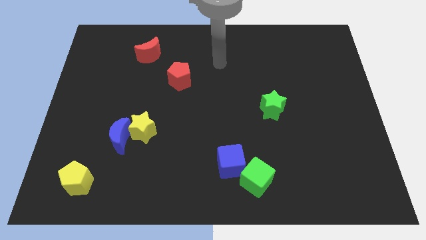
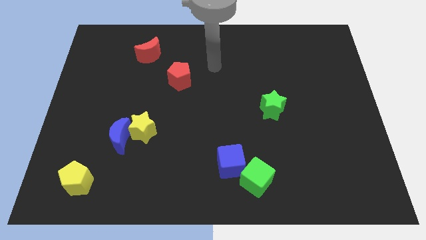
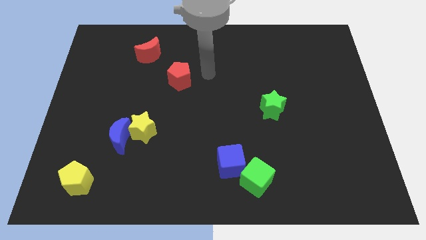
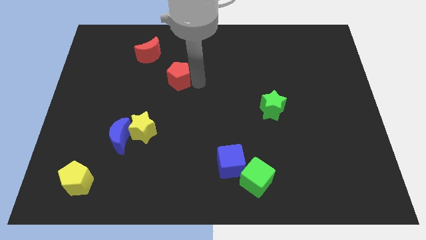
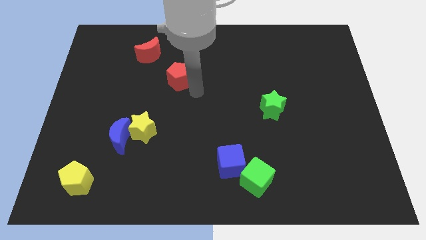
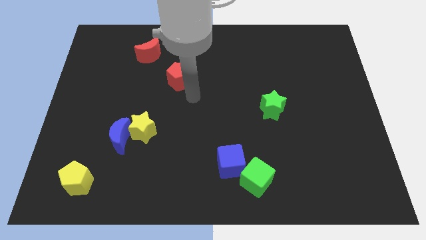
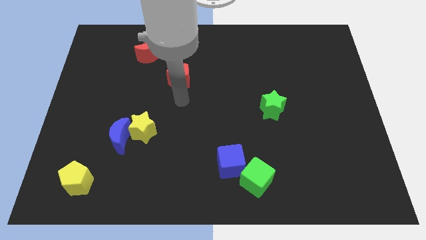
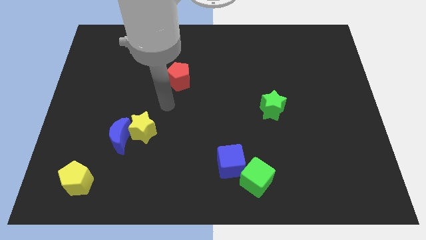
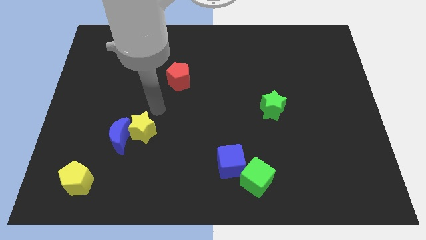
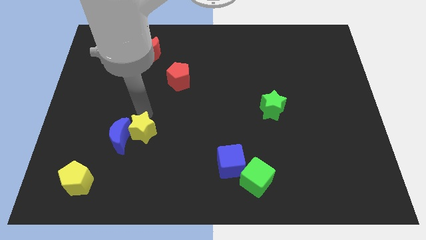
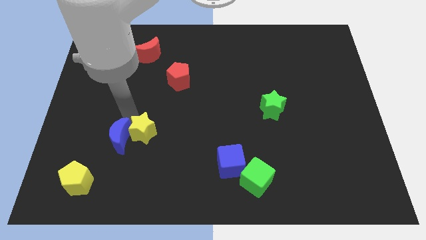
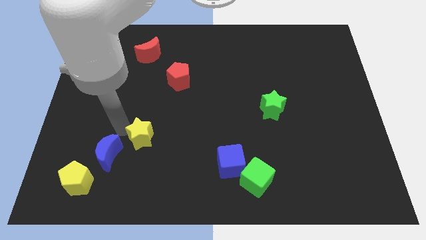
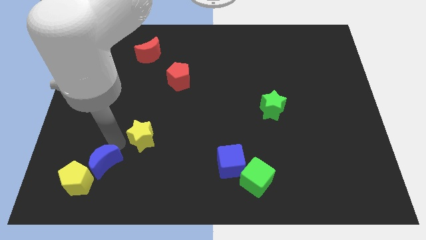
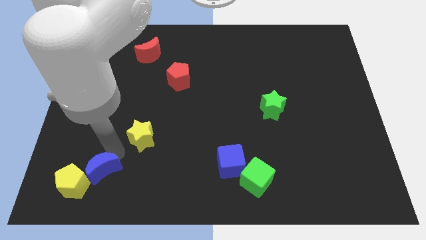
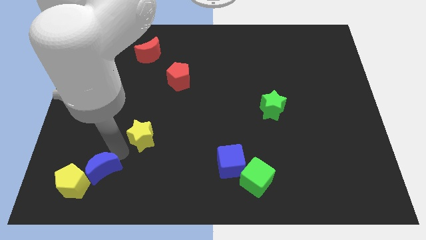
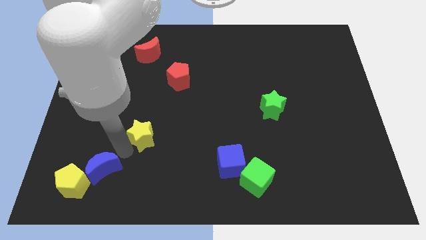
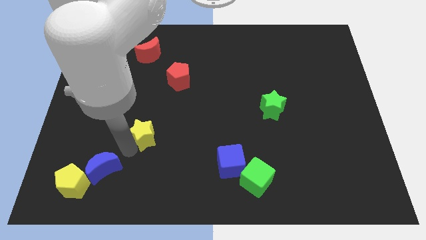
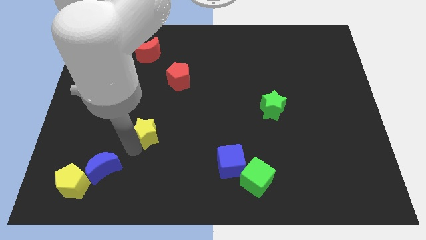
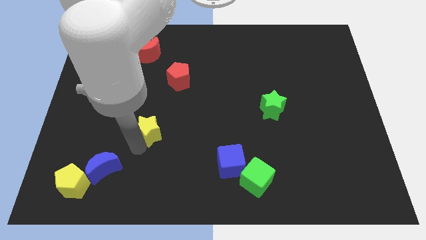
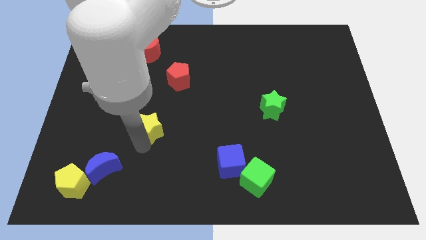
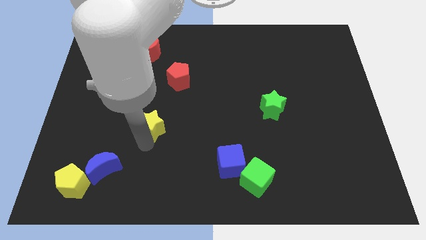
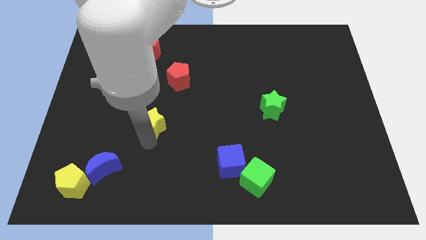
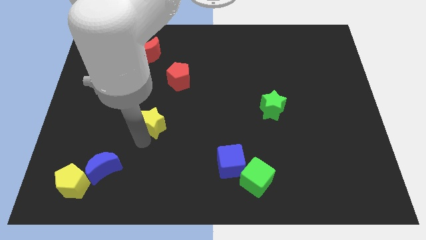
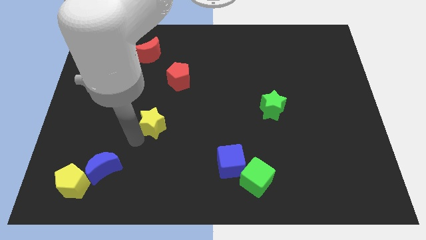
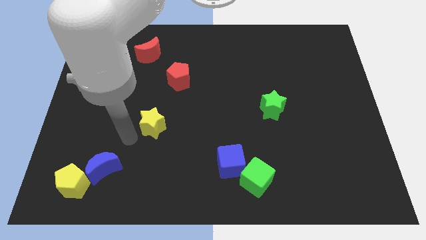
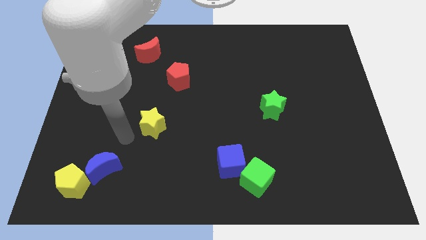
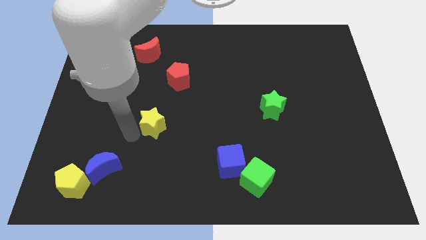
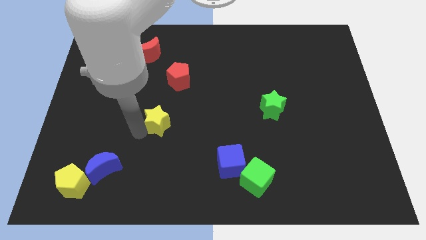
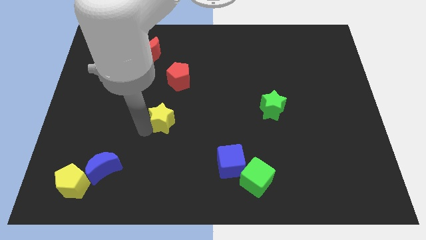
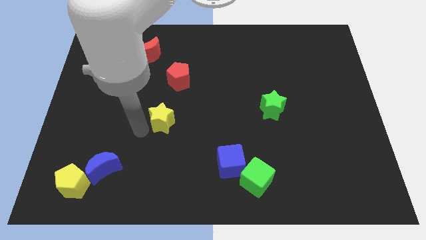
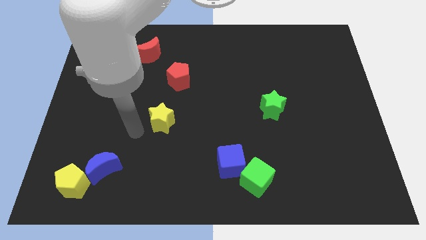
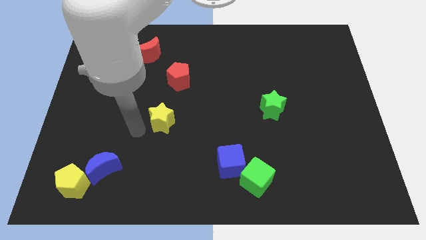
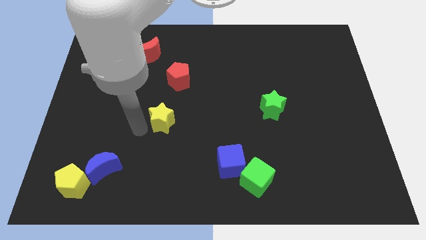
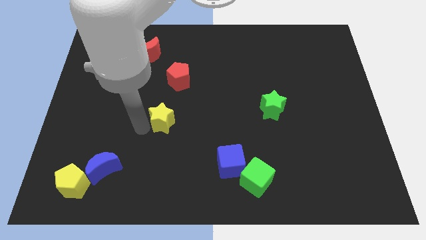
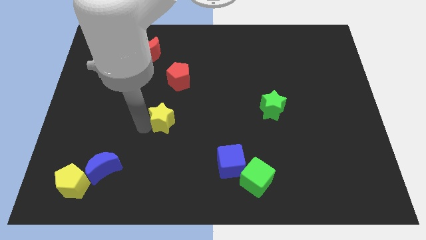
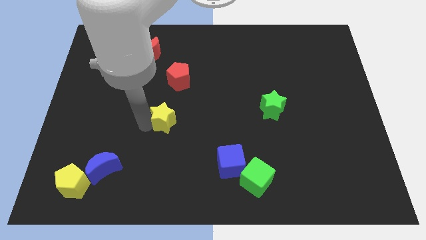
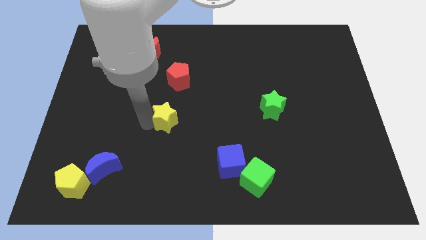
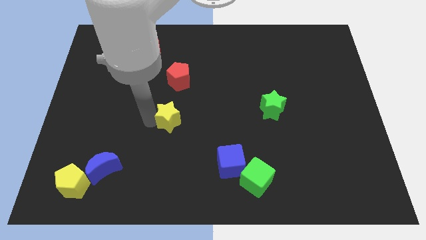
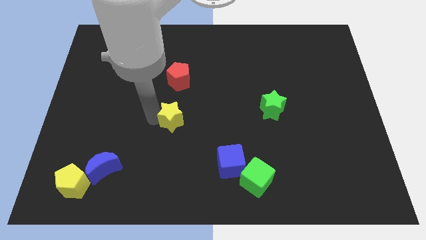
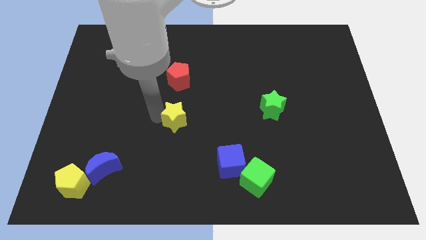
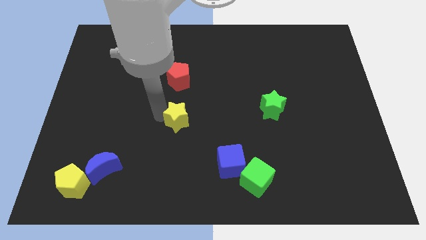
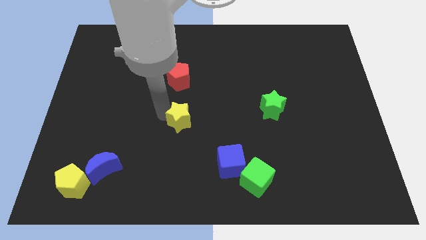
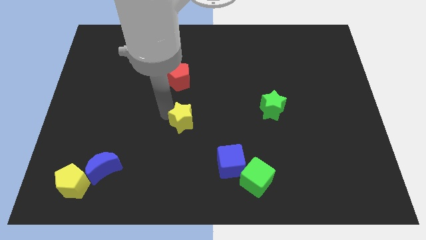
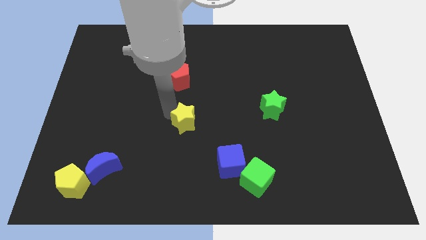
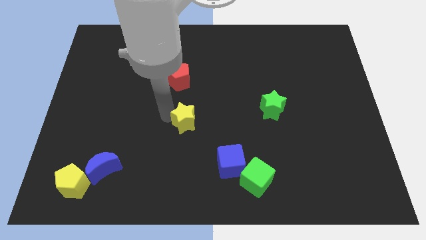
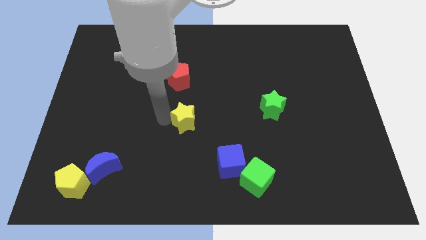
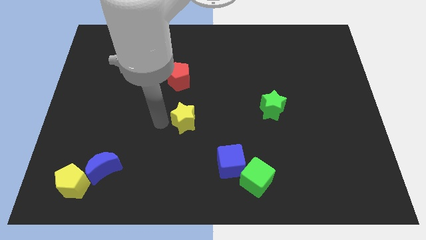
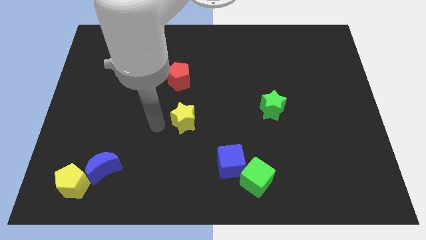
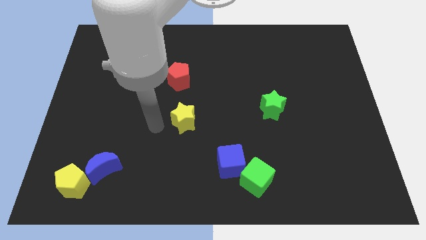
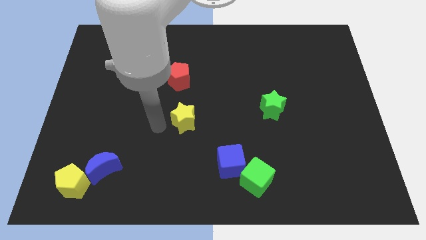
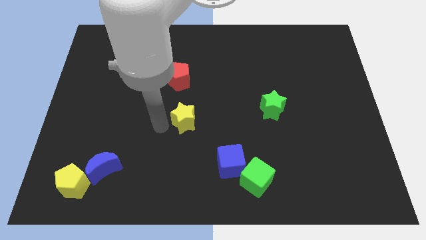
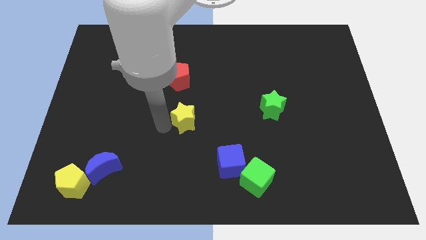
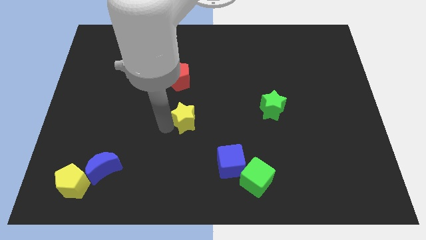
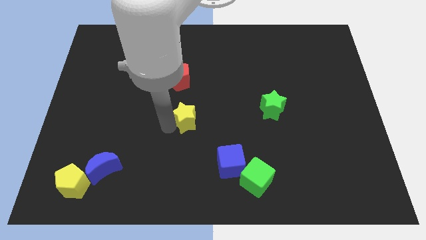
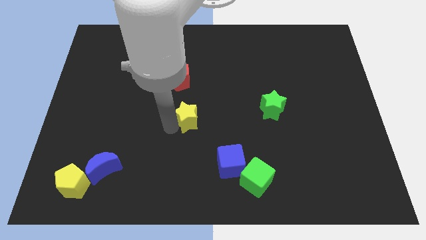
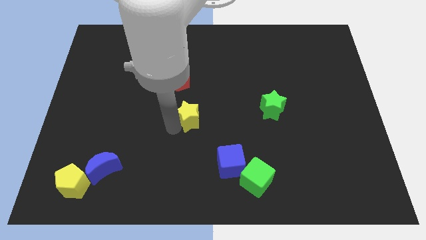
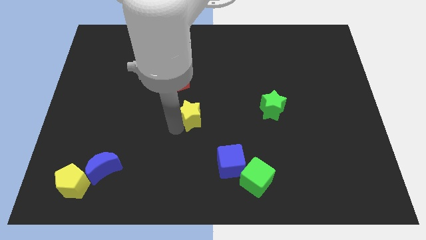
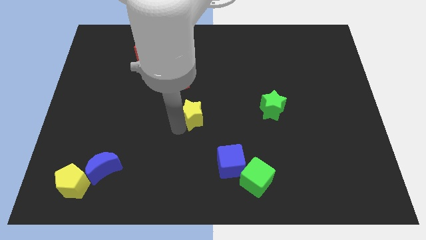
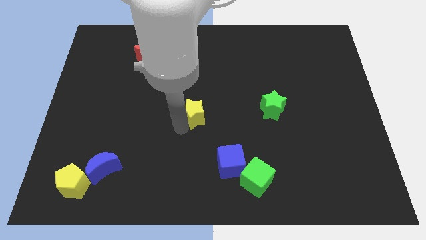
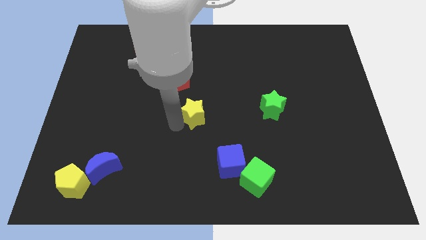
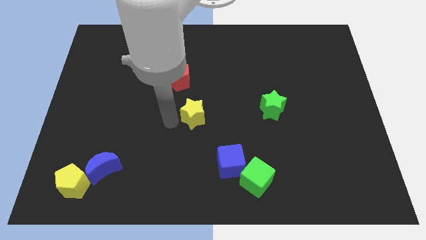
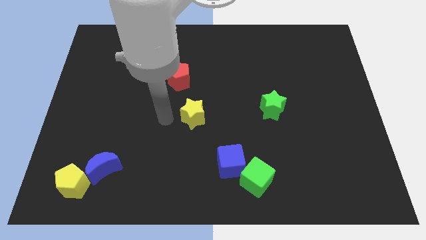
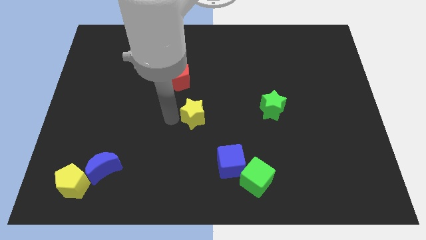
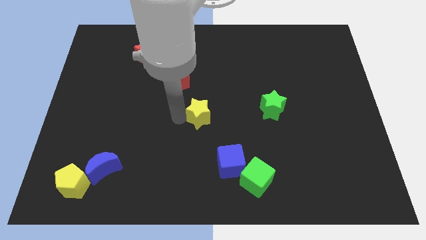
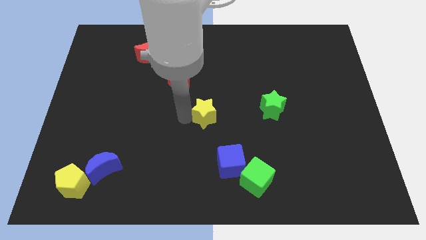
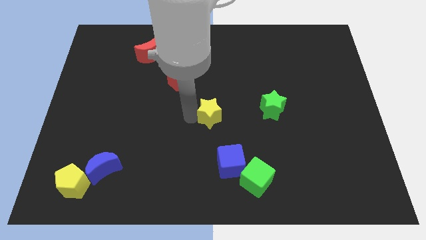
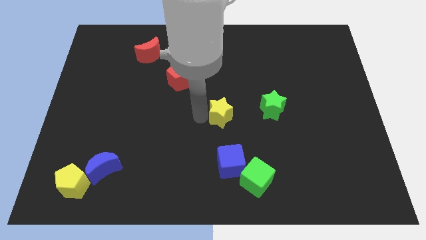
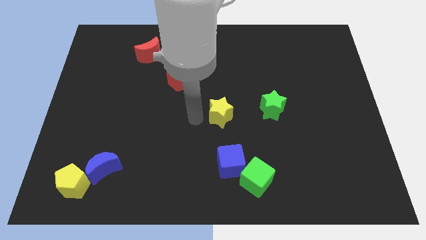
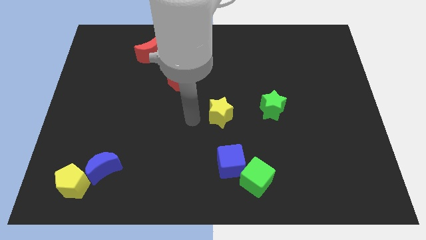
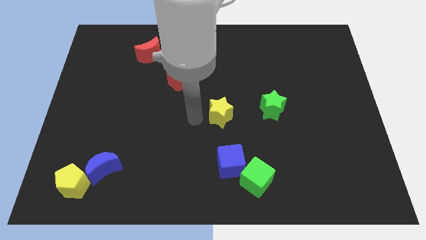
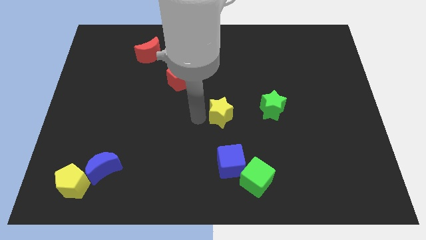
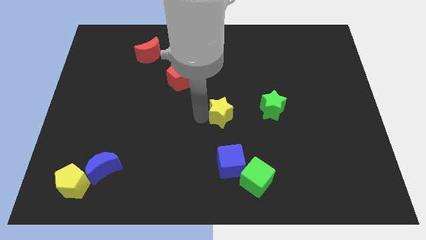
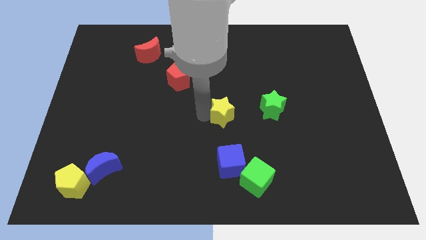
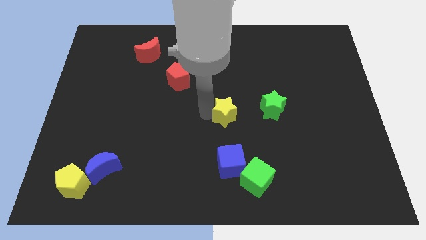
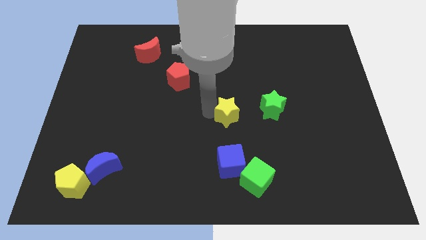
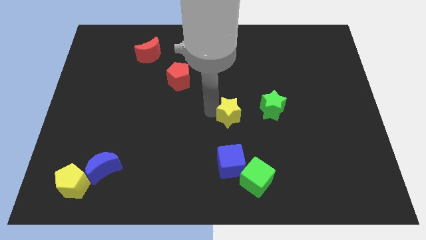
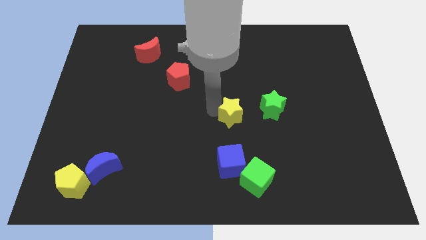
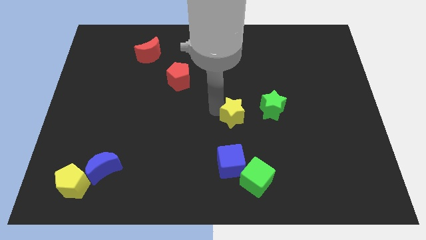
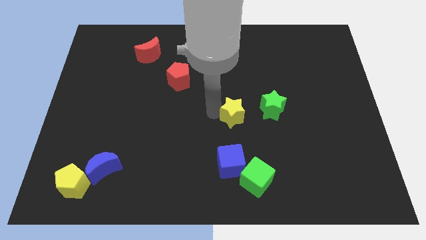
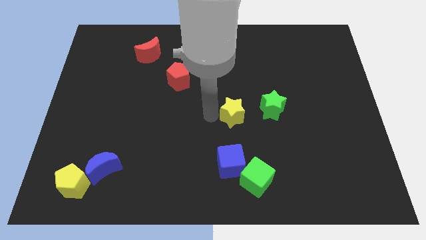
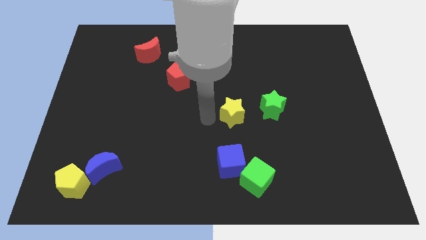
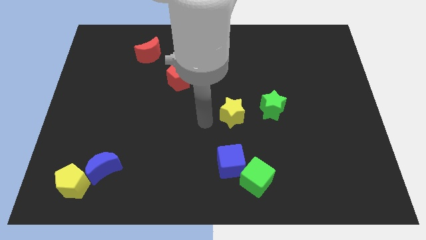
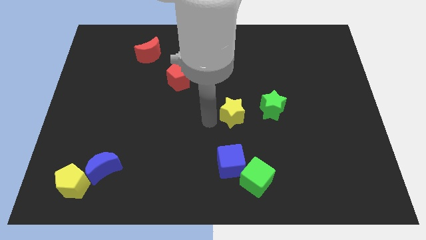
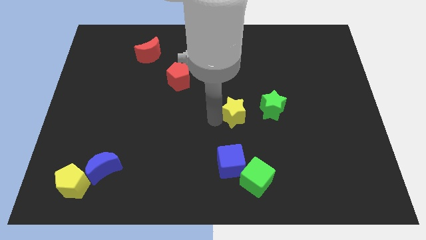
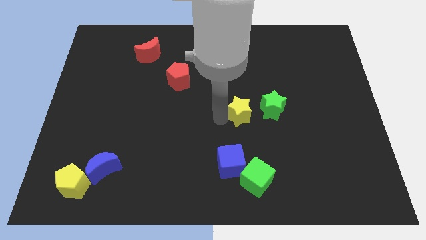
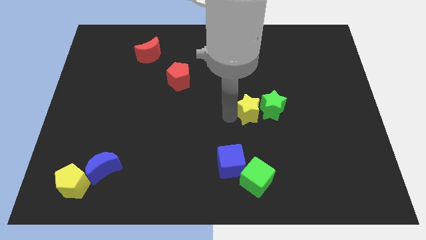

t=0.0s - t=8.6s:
put the yellow star close to the green star
